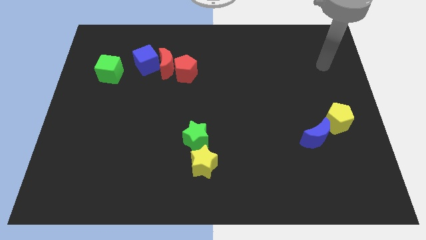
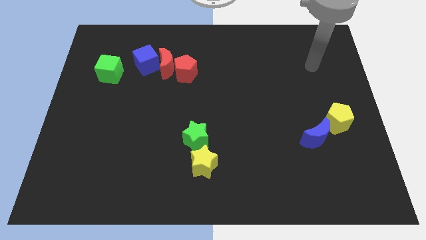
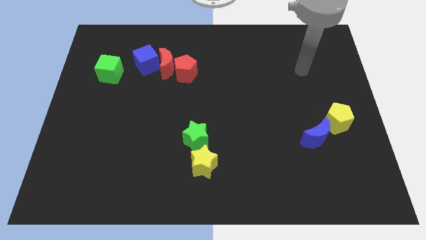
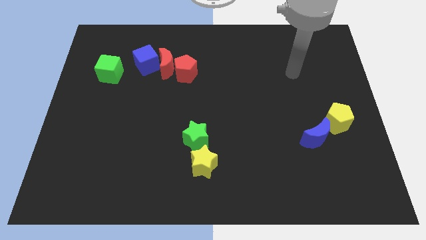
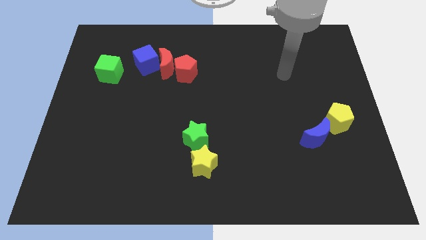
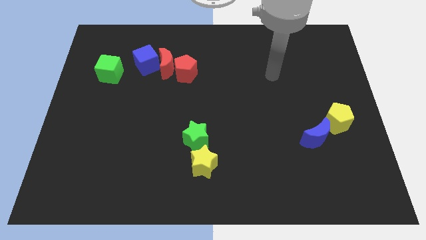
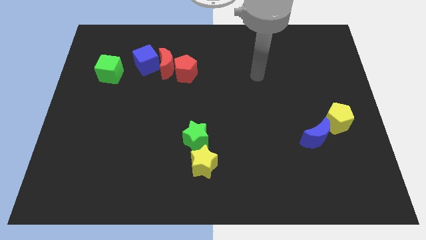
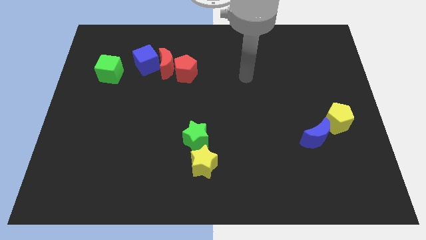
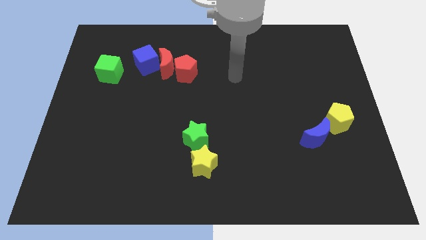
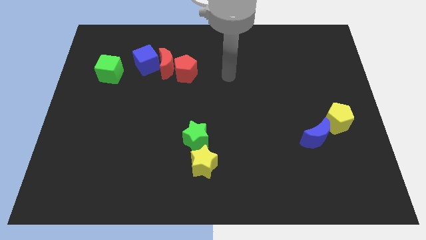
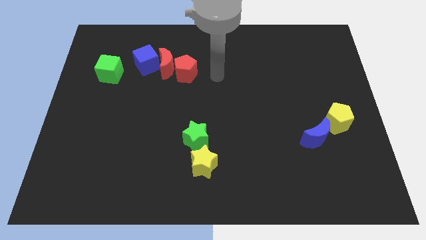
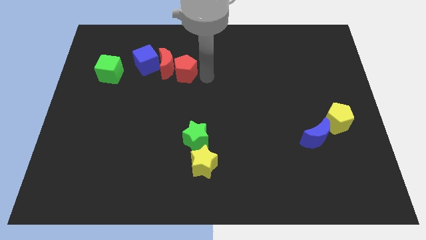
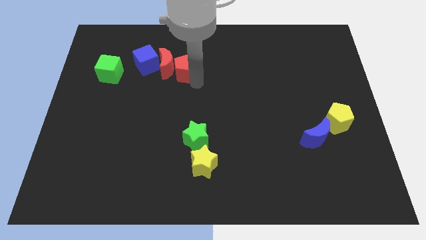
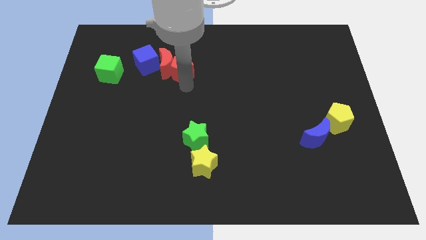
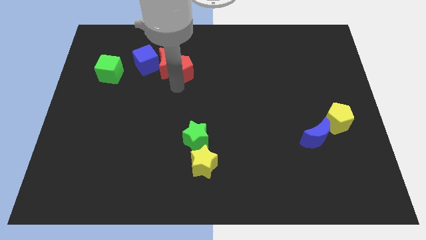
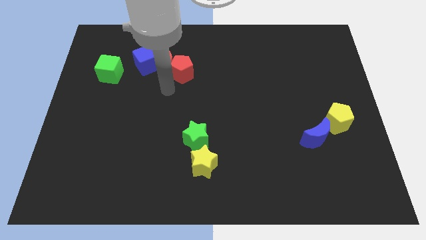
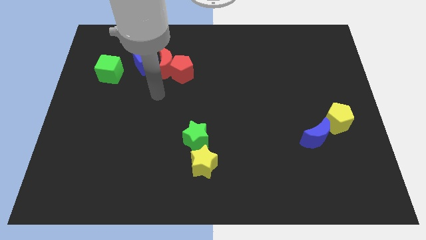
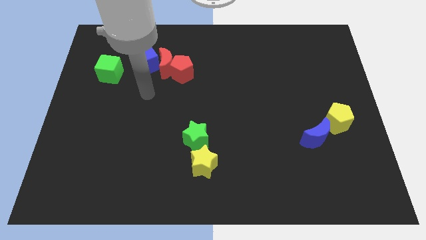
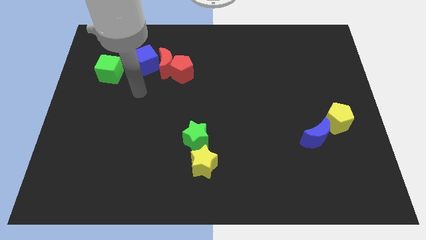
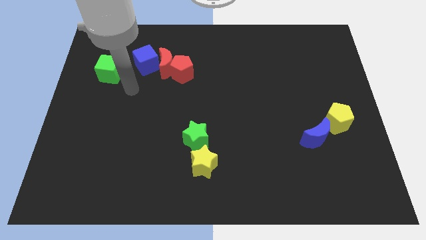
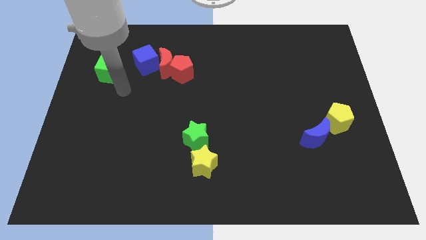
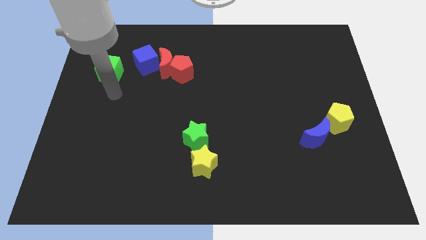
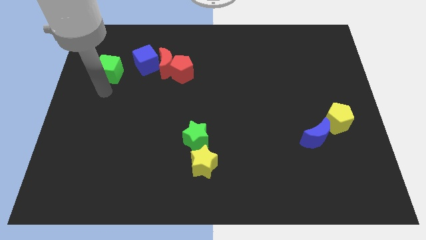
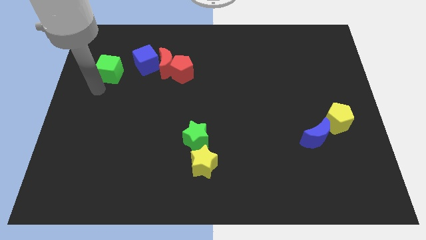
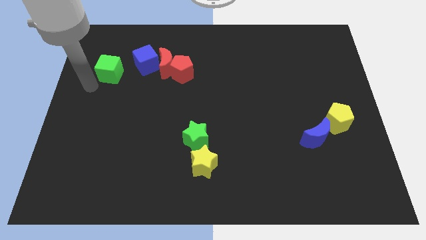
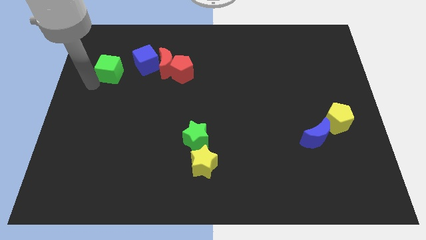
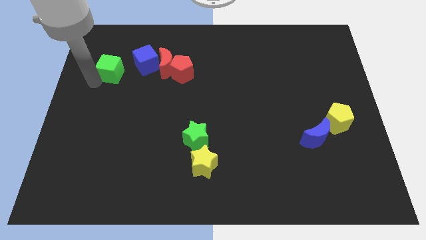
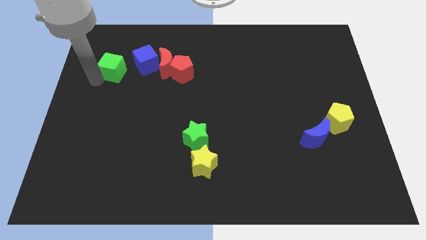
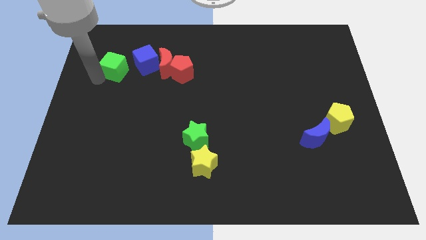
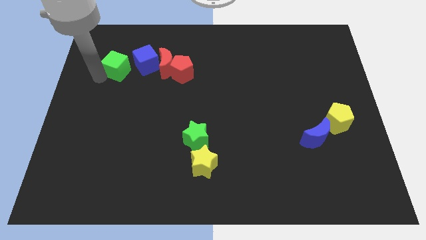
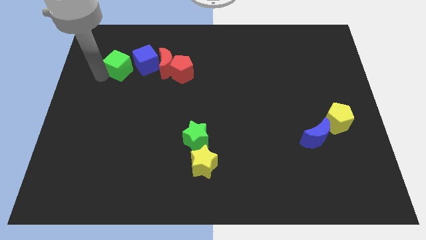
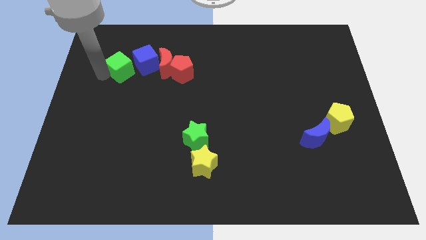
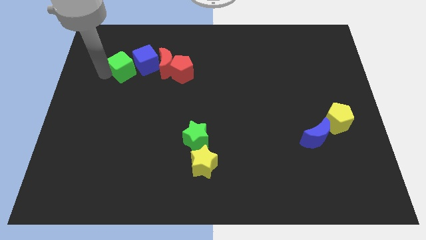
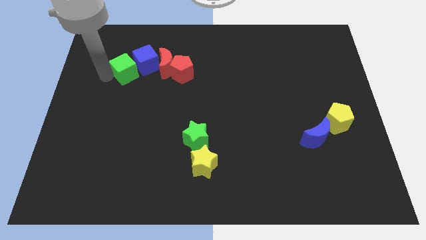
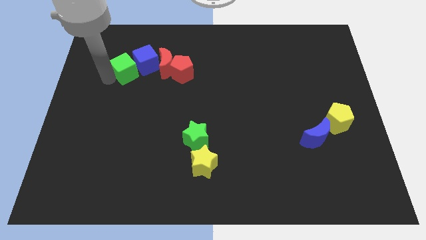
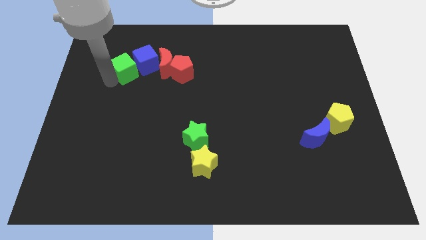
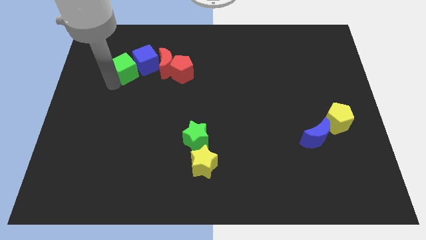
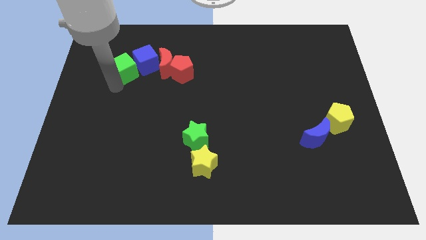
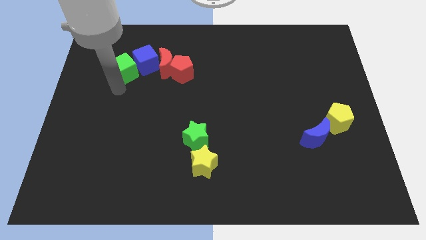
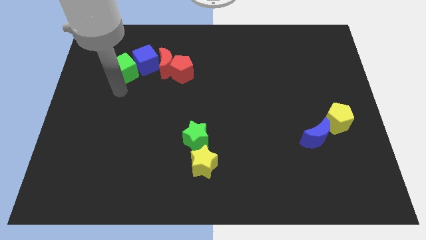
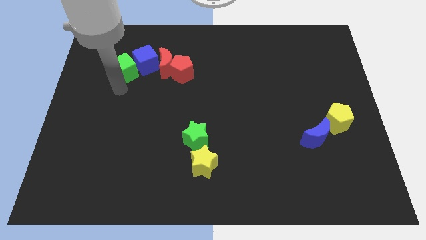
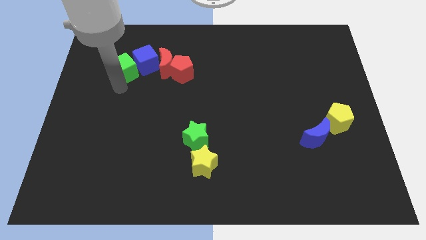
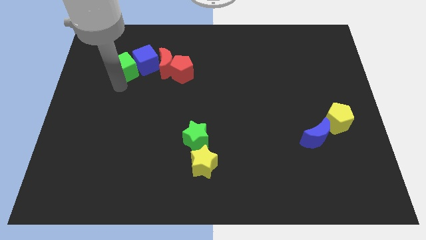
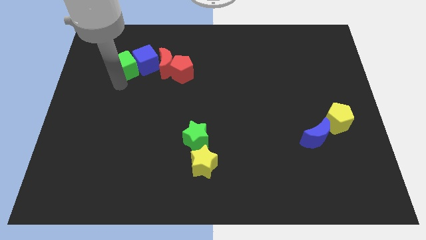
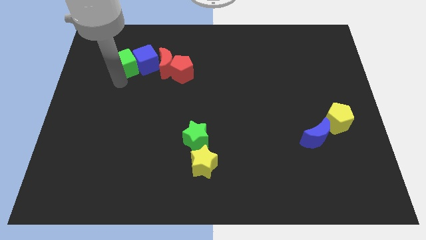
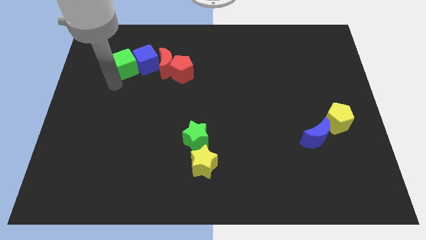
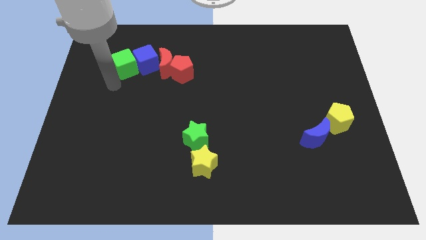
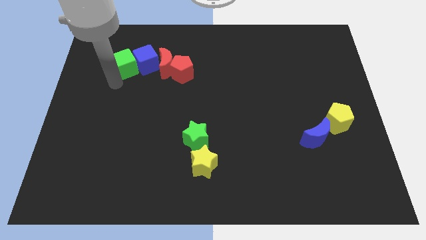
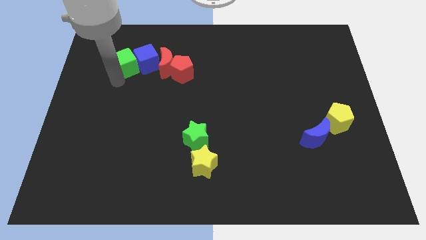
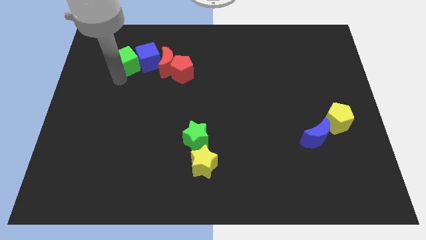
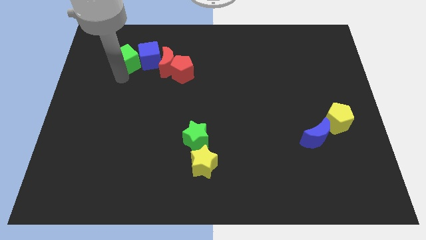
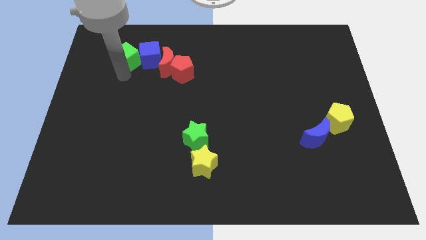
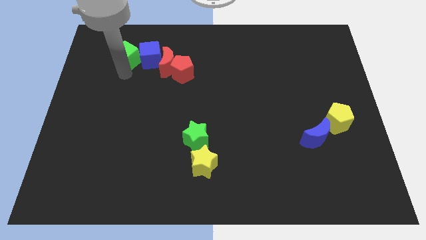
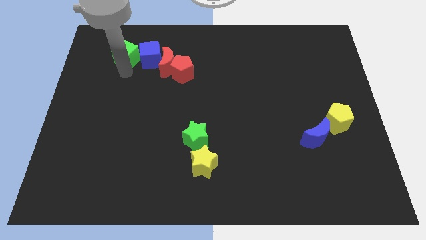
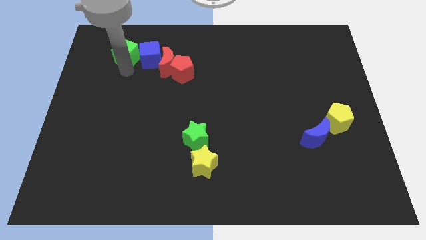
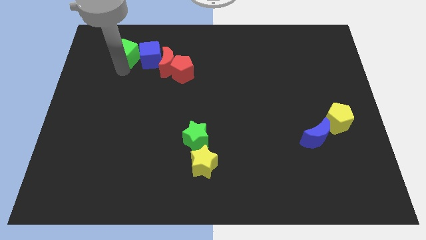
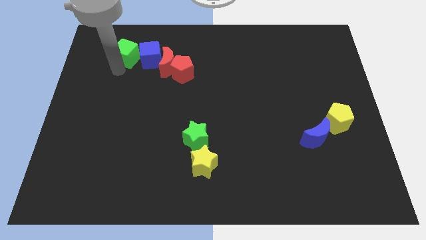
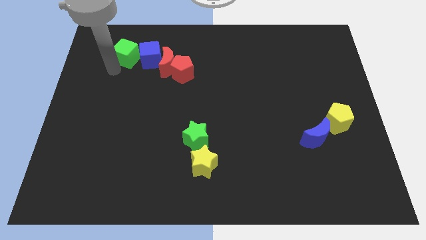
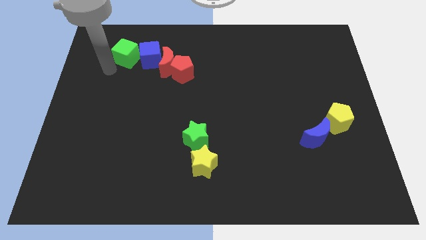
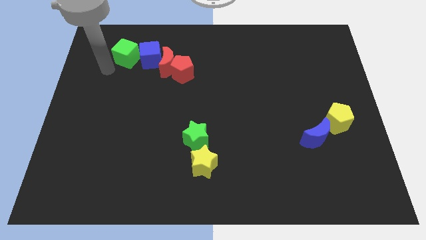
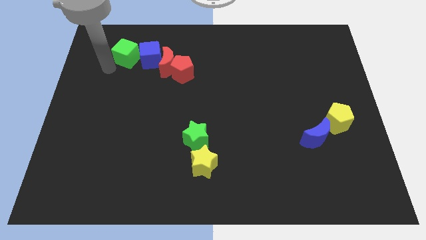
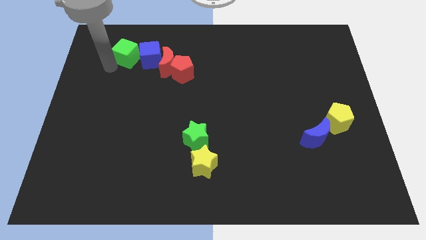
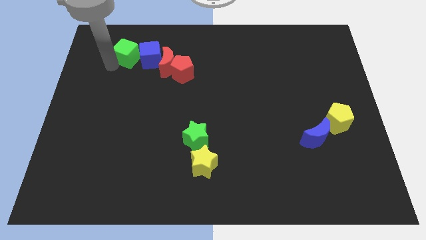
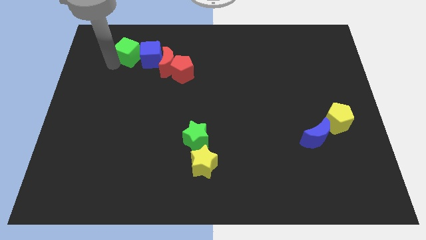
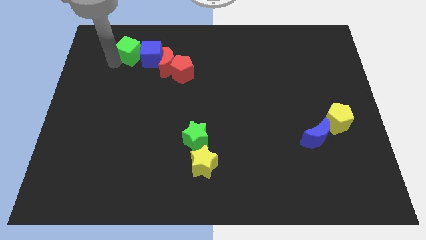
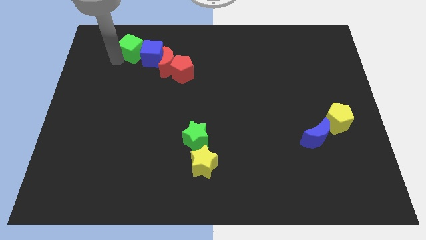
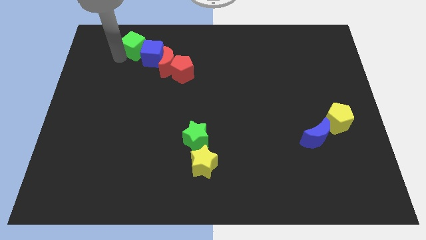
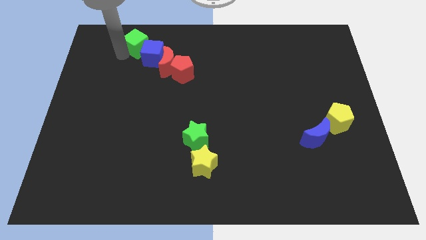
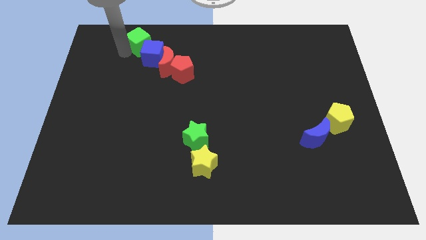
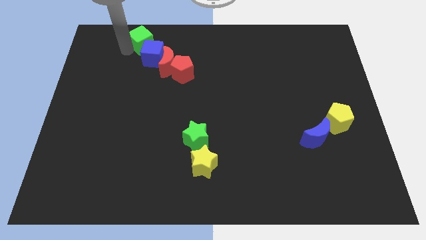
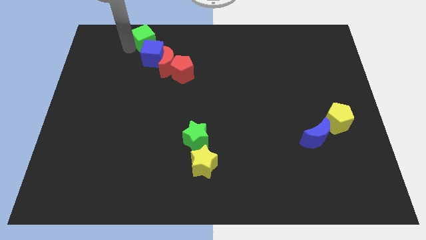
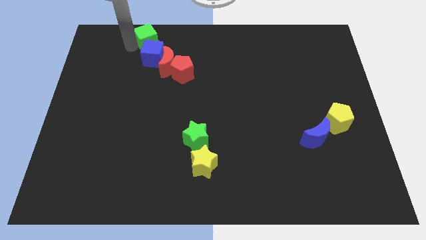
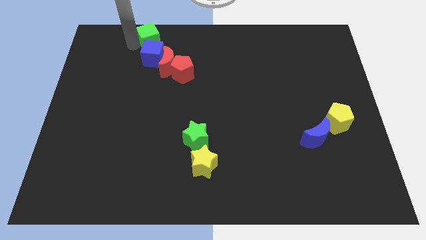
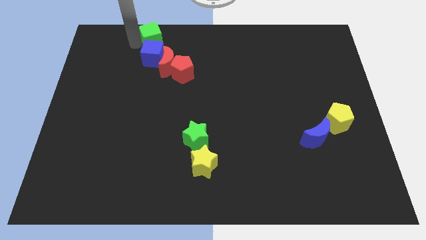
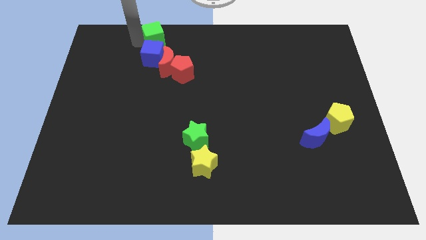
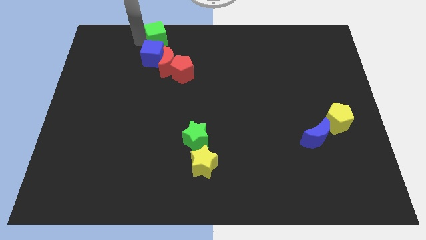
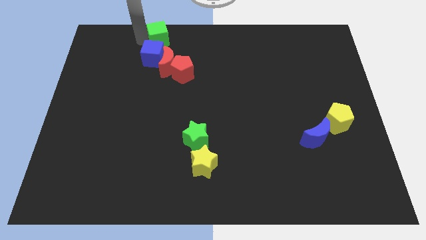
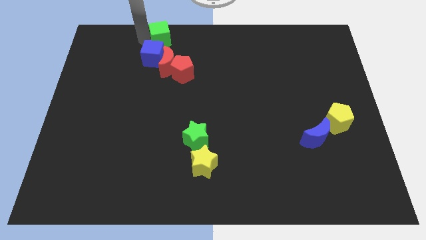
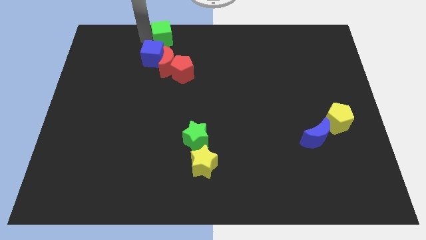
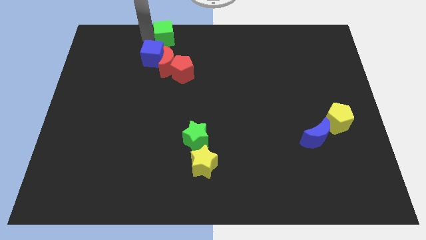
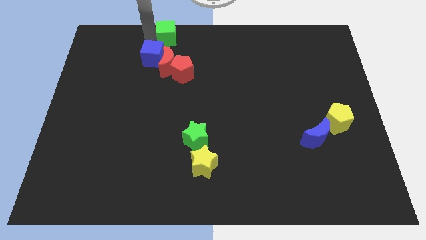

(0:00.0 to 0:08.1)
move the green cube to the top side
